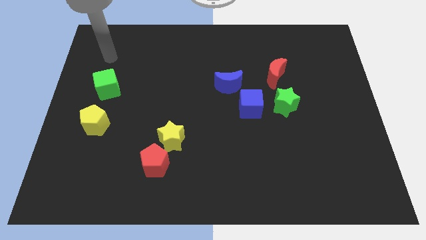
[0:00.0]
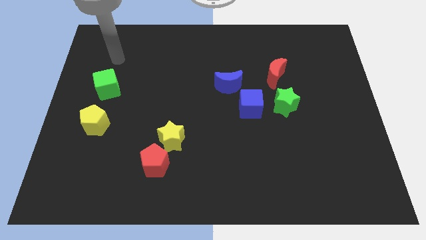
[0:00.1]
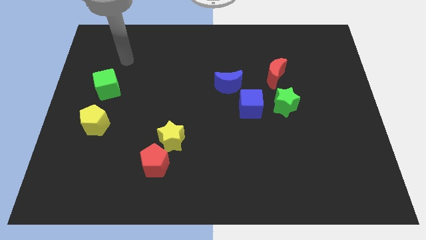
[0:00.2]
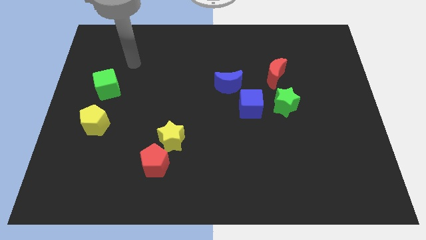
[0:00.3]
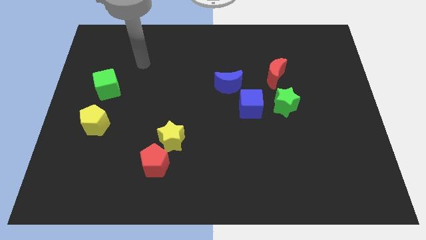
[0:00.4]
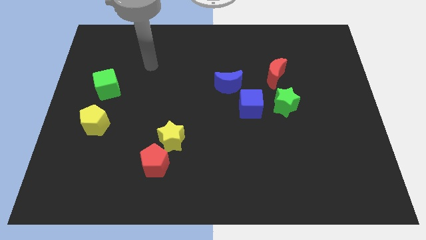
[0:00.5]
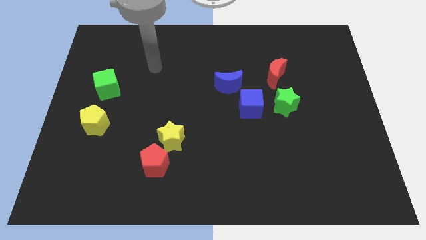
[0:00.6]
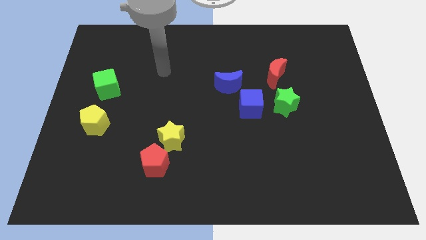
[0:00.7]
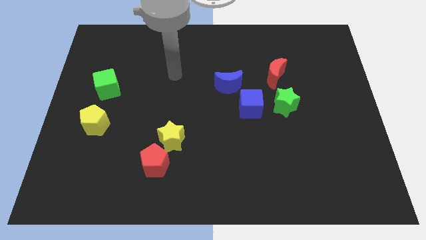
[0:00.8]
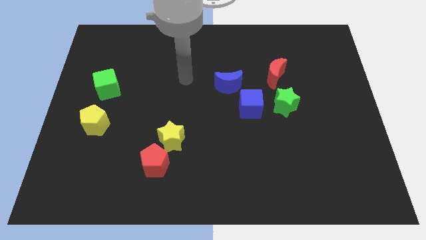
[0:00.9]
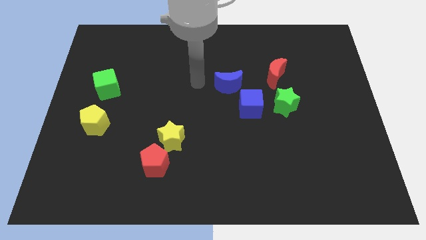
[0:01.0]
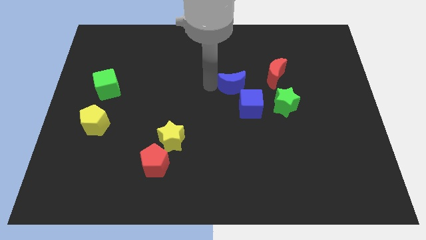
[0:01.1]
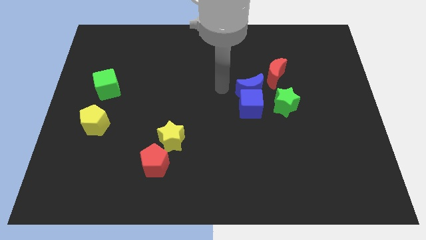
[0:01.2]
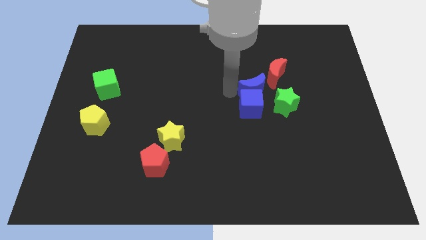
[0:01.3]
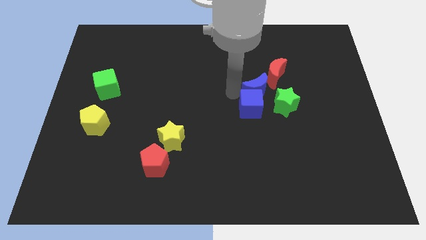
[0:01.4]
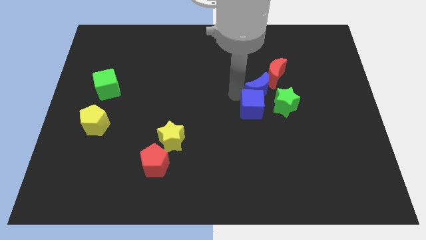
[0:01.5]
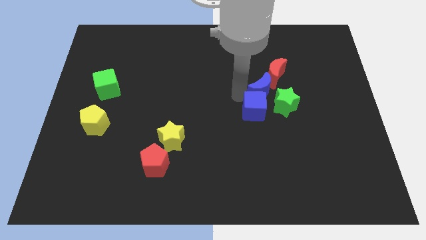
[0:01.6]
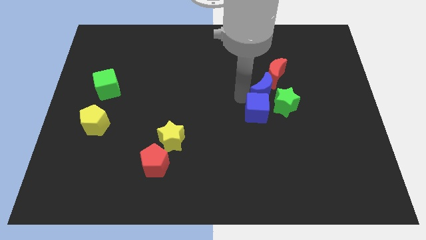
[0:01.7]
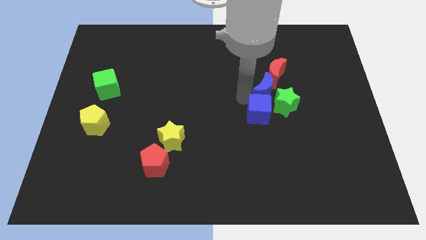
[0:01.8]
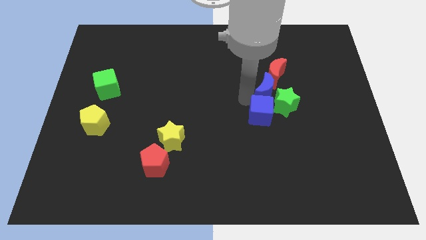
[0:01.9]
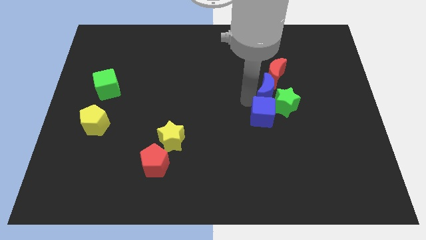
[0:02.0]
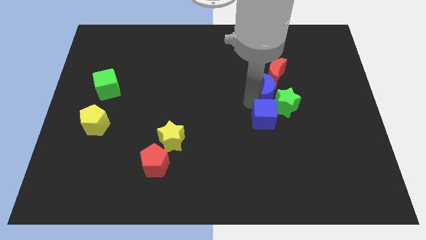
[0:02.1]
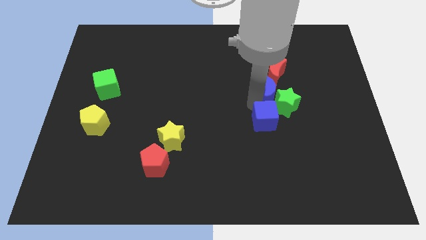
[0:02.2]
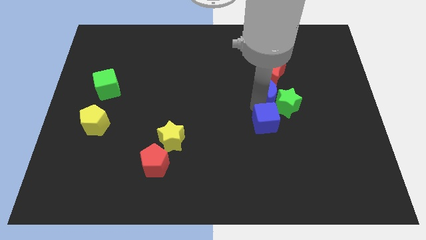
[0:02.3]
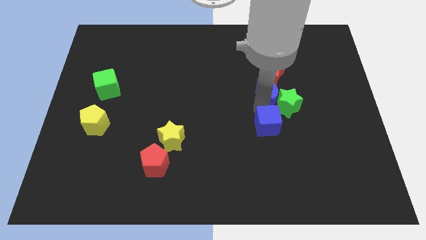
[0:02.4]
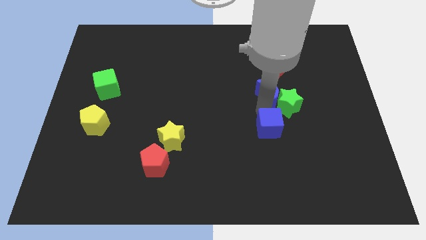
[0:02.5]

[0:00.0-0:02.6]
slightly move the blue cube down and to the right diagonally

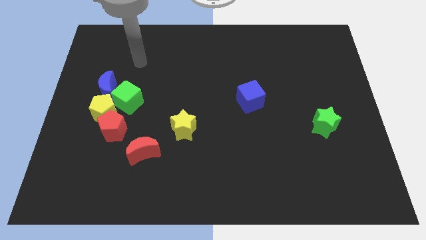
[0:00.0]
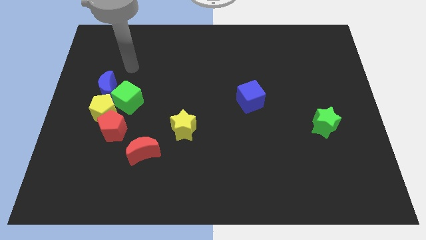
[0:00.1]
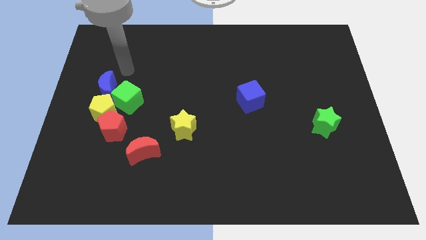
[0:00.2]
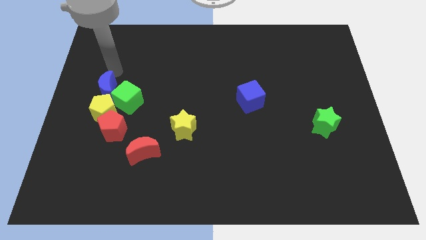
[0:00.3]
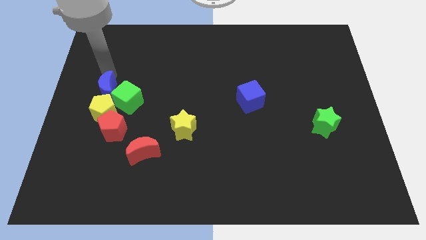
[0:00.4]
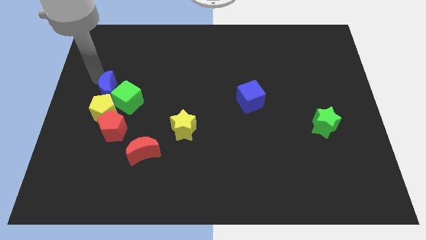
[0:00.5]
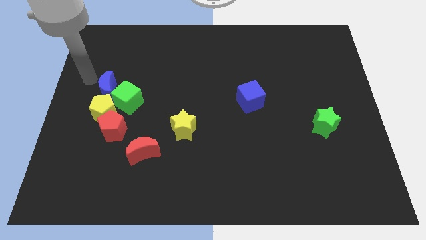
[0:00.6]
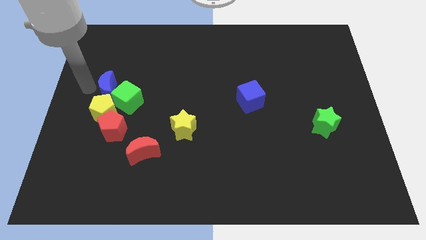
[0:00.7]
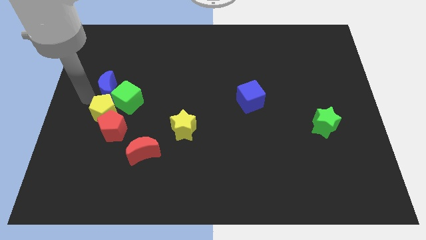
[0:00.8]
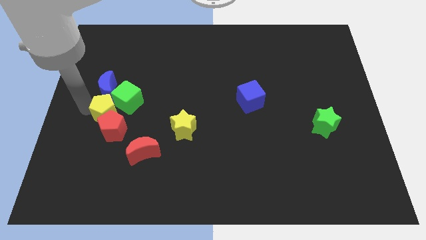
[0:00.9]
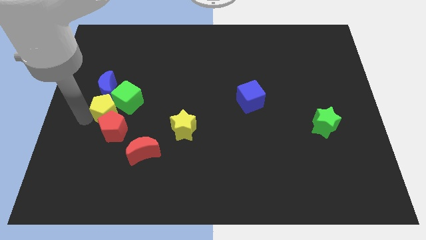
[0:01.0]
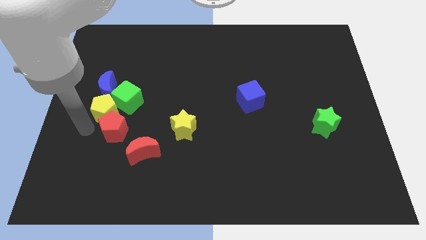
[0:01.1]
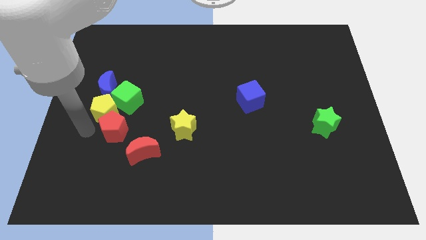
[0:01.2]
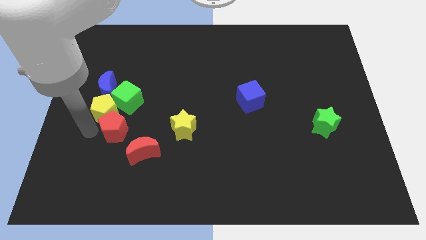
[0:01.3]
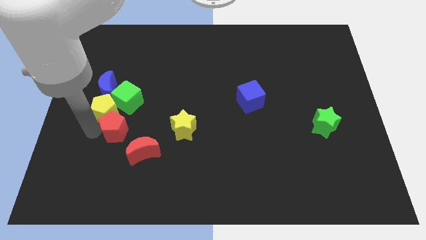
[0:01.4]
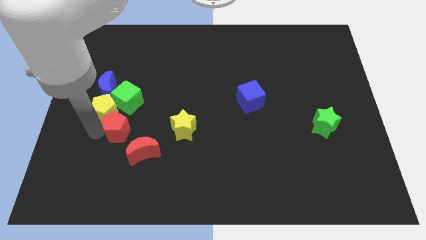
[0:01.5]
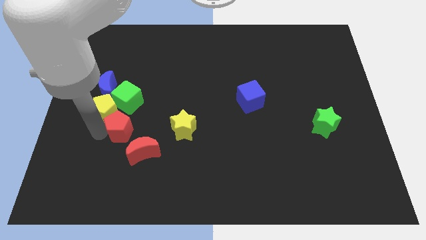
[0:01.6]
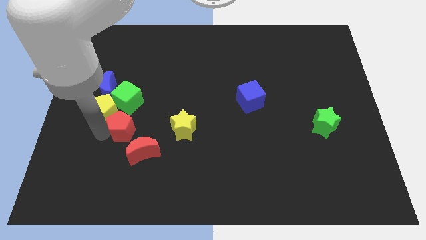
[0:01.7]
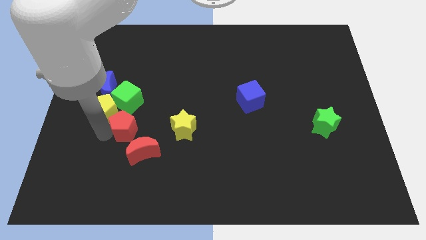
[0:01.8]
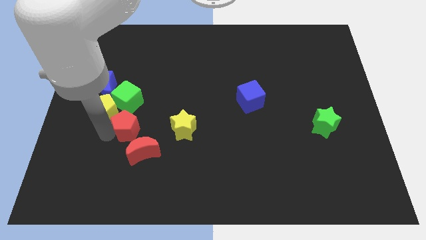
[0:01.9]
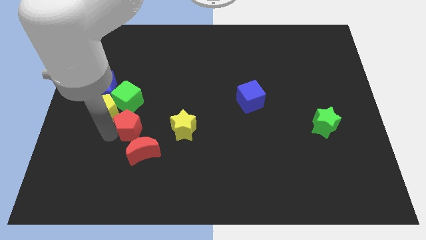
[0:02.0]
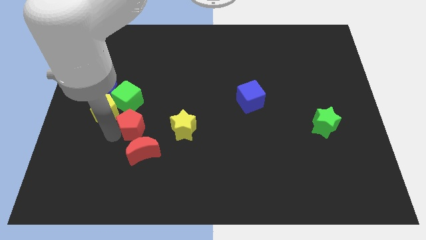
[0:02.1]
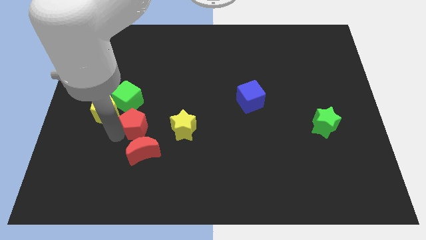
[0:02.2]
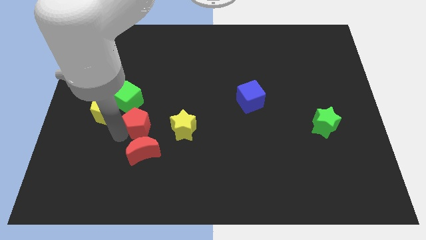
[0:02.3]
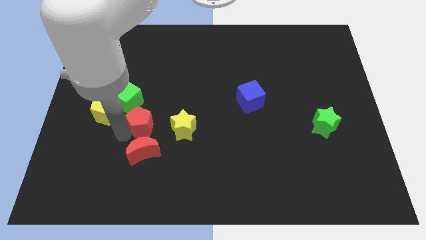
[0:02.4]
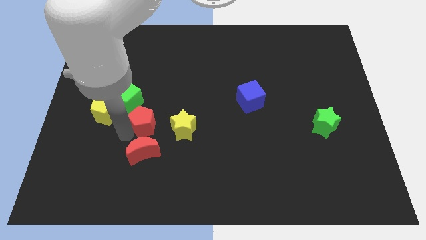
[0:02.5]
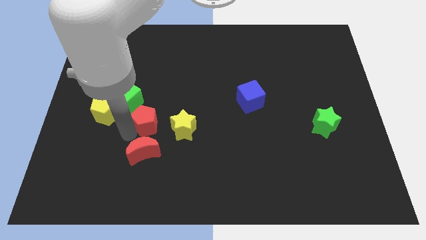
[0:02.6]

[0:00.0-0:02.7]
push the red pentagon to the right a little bit

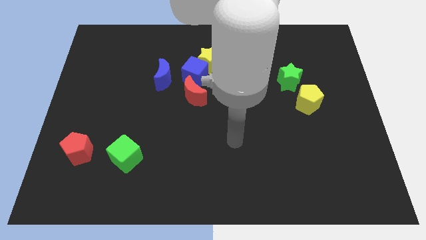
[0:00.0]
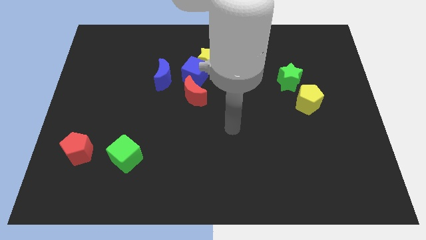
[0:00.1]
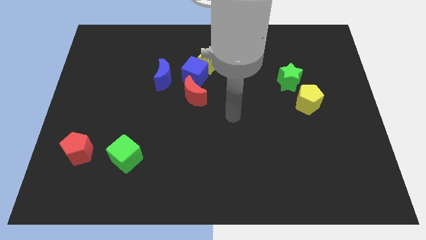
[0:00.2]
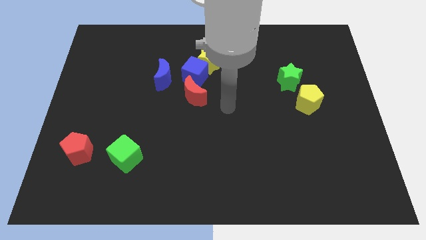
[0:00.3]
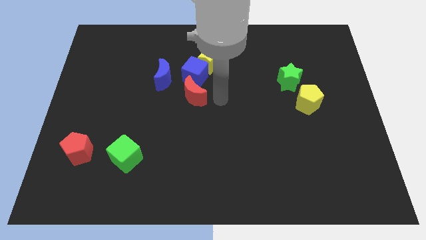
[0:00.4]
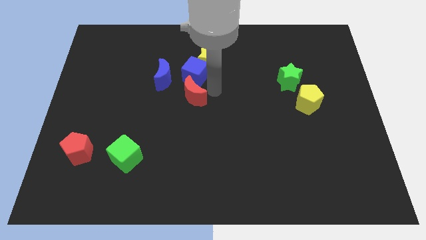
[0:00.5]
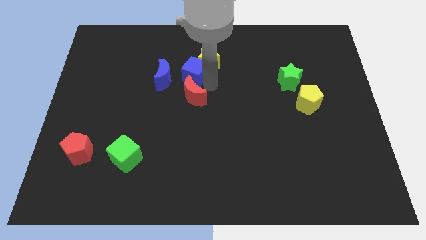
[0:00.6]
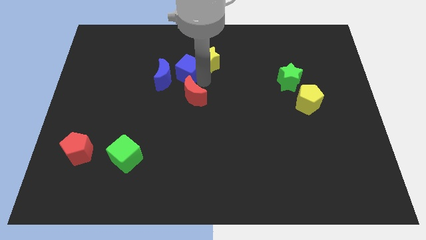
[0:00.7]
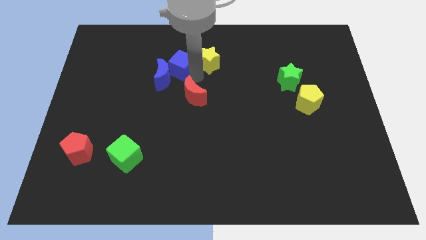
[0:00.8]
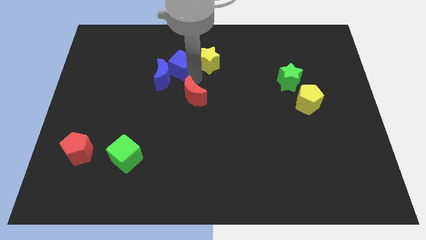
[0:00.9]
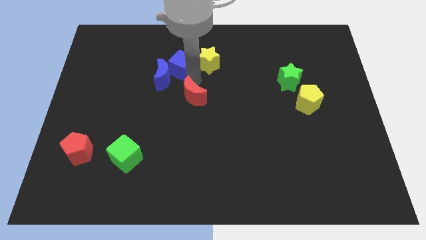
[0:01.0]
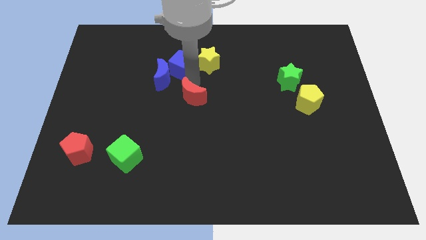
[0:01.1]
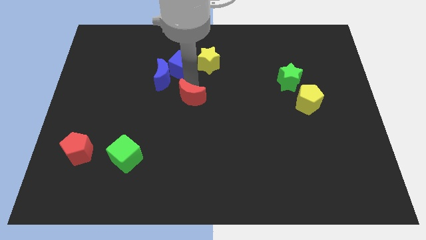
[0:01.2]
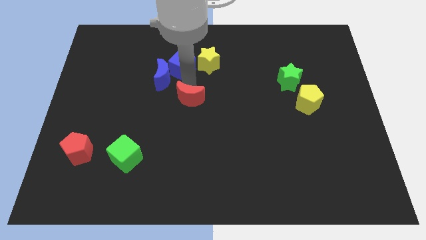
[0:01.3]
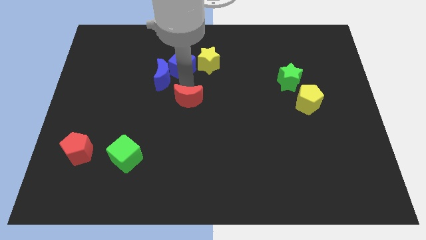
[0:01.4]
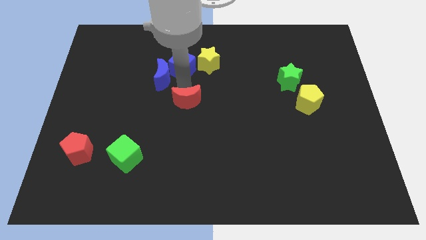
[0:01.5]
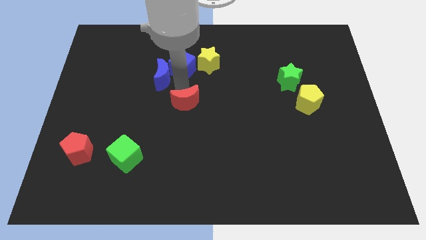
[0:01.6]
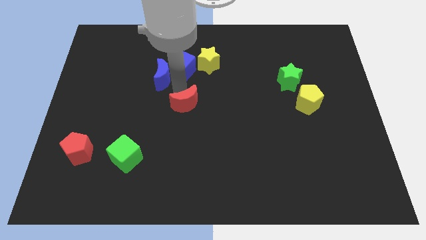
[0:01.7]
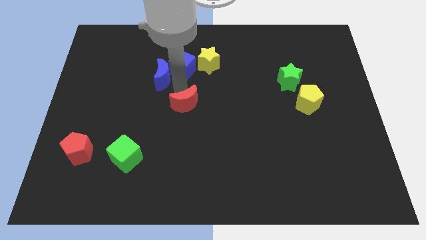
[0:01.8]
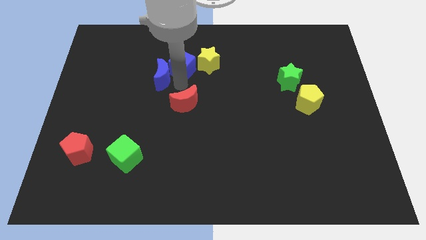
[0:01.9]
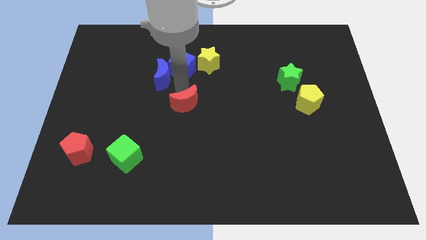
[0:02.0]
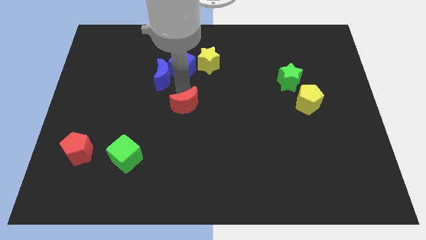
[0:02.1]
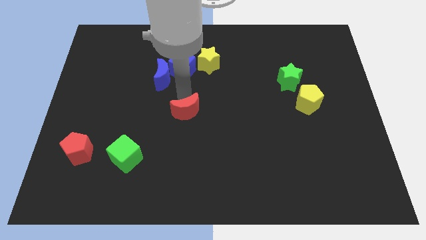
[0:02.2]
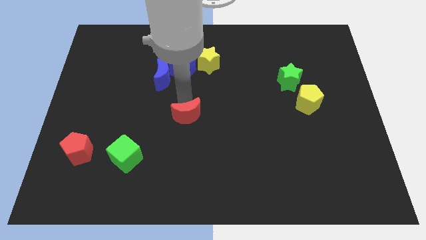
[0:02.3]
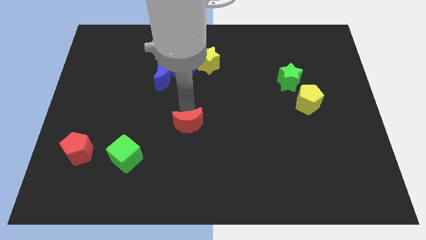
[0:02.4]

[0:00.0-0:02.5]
slightly move the red moon downwards
